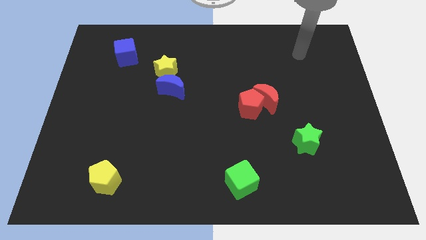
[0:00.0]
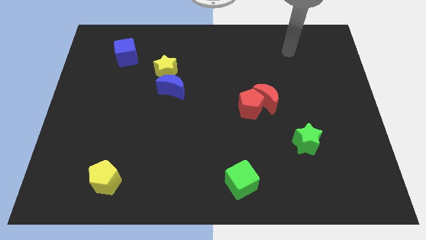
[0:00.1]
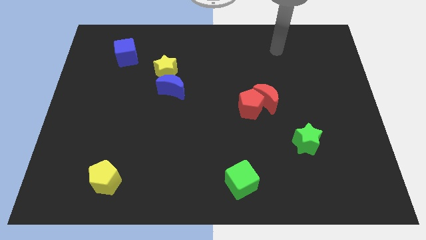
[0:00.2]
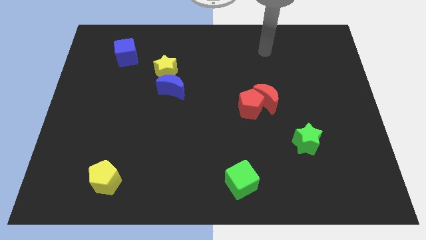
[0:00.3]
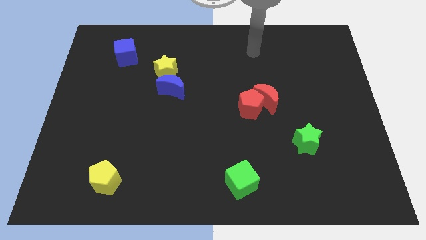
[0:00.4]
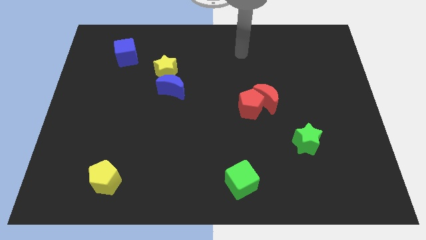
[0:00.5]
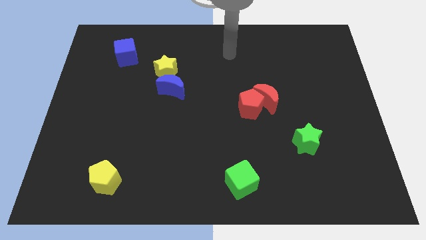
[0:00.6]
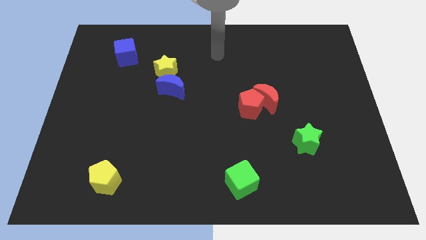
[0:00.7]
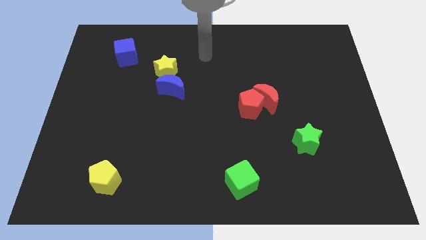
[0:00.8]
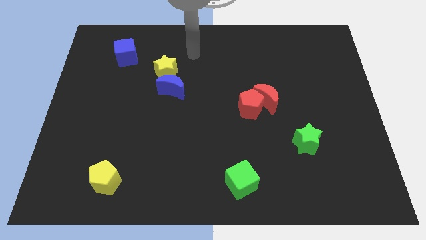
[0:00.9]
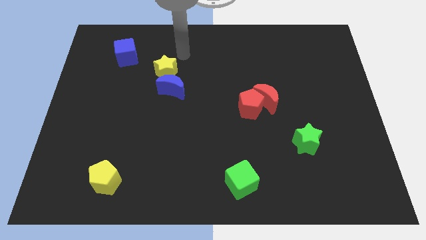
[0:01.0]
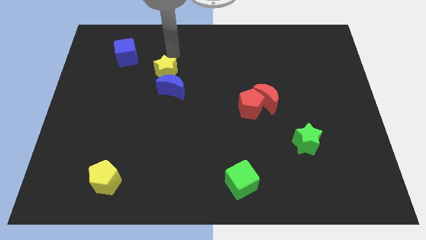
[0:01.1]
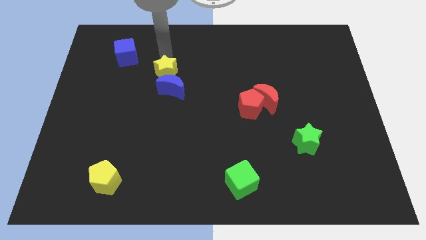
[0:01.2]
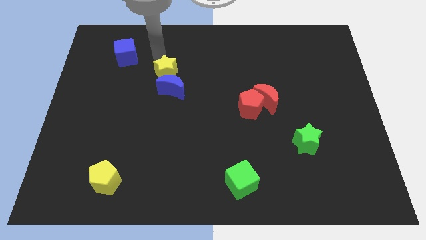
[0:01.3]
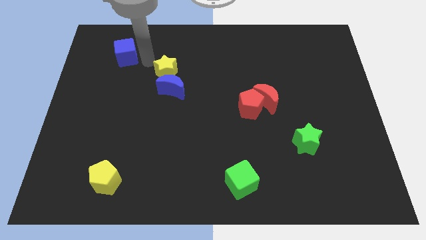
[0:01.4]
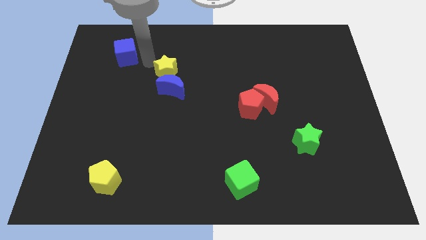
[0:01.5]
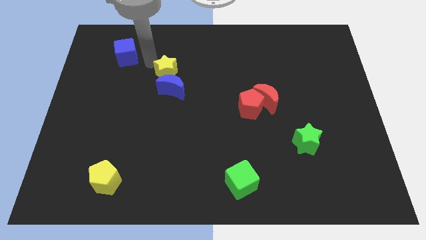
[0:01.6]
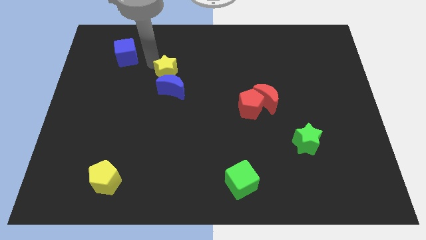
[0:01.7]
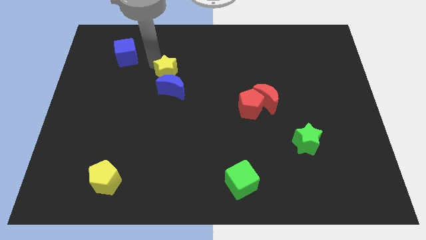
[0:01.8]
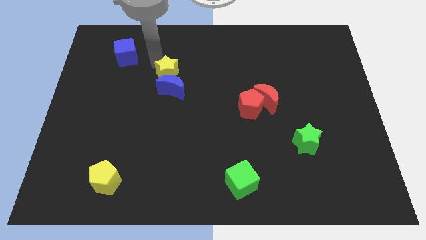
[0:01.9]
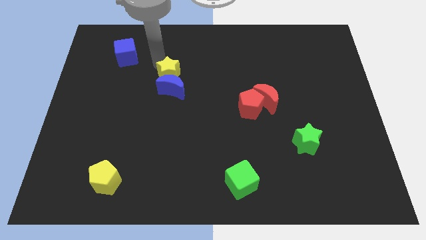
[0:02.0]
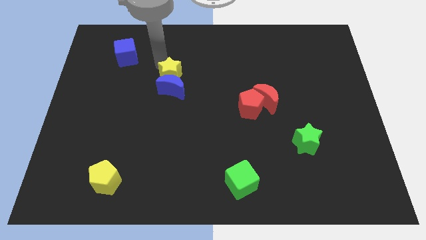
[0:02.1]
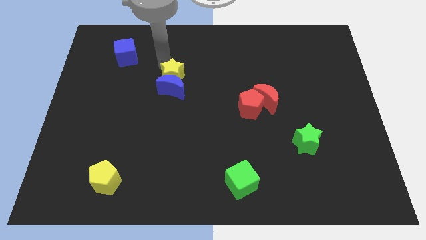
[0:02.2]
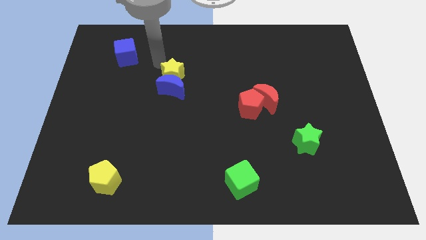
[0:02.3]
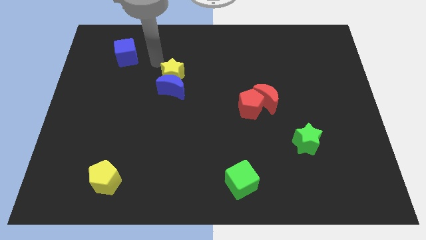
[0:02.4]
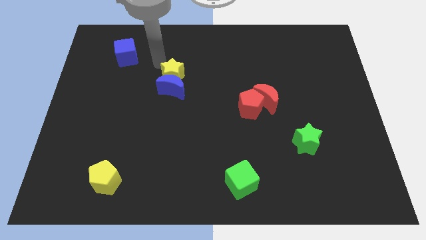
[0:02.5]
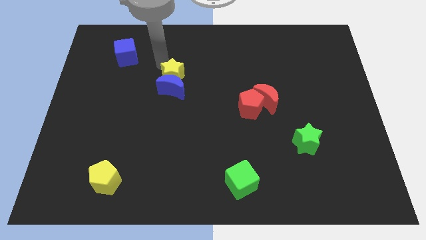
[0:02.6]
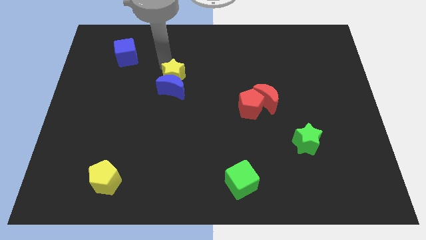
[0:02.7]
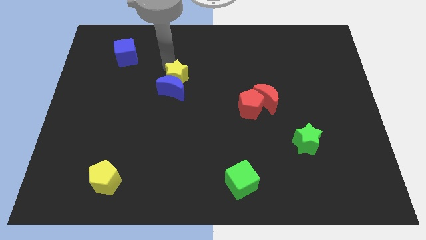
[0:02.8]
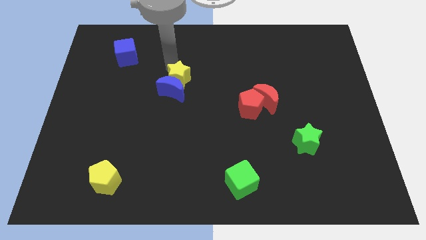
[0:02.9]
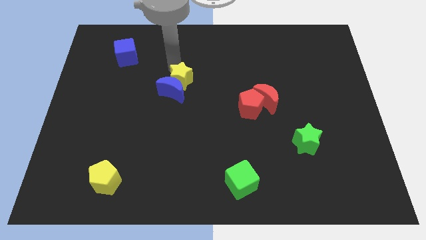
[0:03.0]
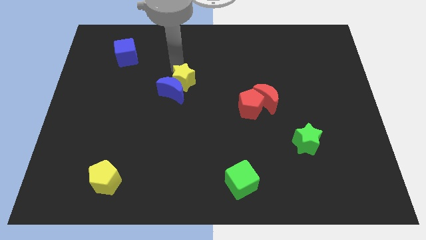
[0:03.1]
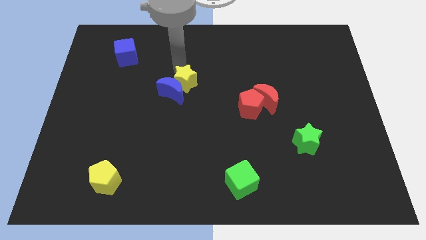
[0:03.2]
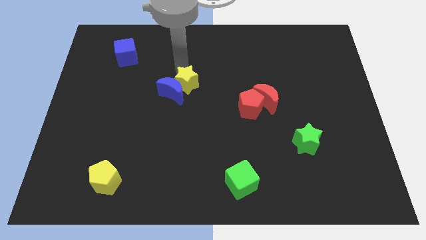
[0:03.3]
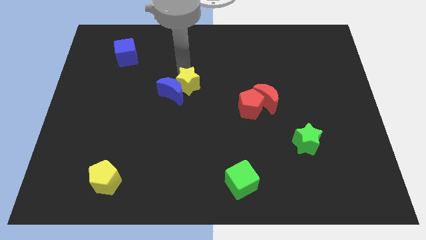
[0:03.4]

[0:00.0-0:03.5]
slide the yellow star diagonally downwards and to the right a little

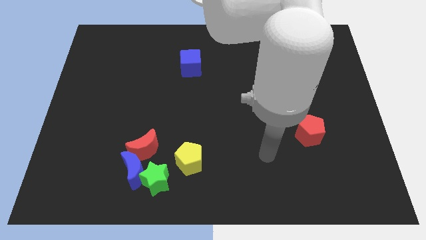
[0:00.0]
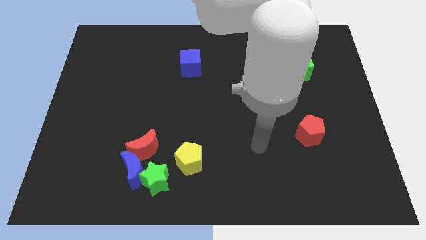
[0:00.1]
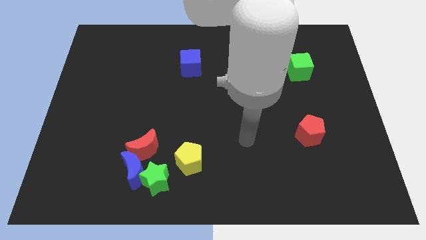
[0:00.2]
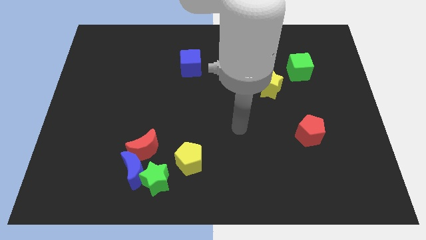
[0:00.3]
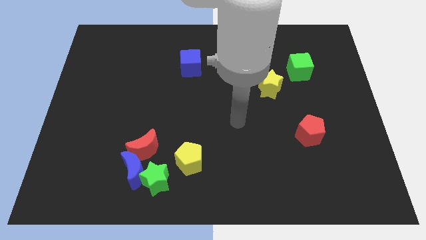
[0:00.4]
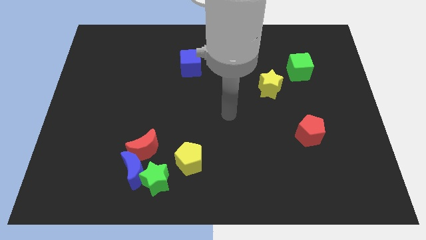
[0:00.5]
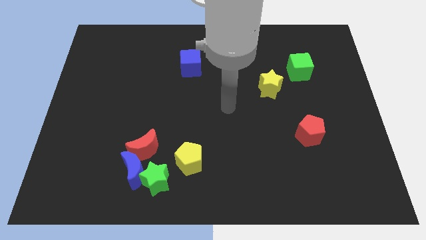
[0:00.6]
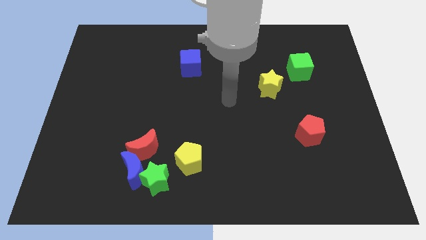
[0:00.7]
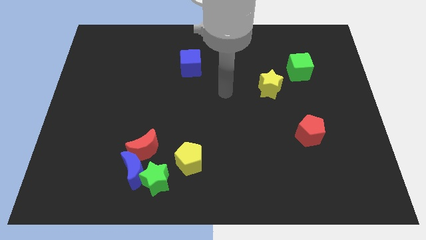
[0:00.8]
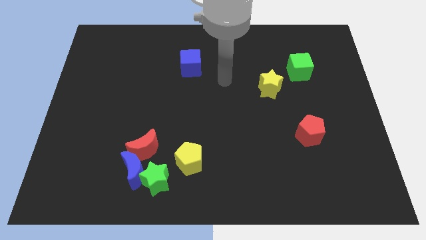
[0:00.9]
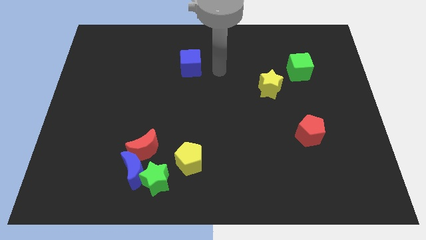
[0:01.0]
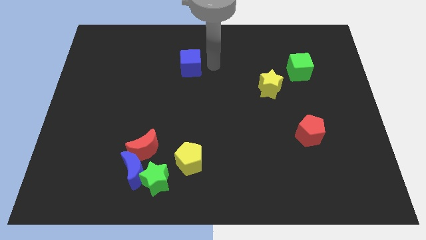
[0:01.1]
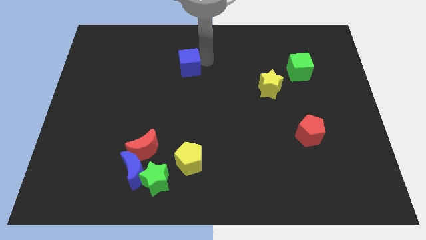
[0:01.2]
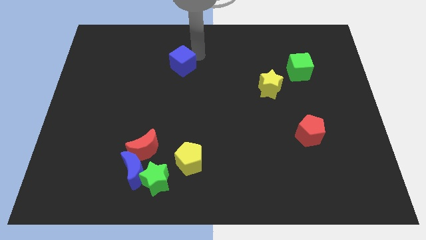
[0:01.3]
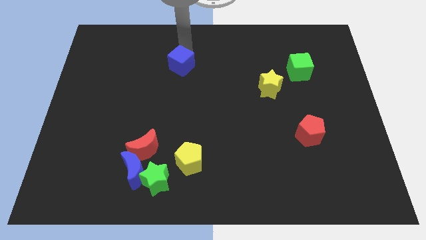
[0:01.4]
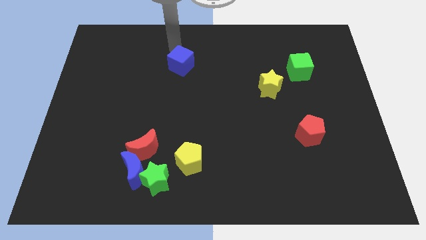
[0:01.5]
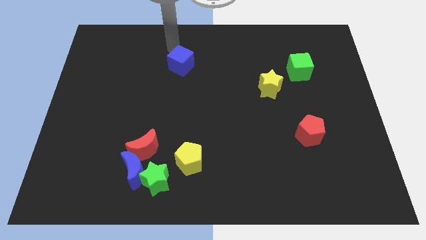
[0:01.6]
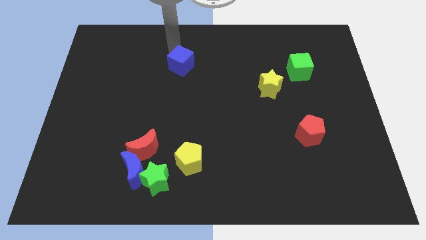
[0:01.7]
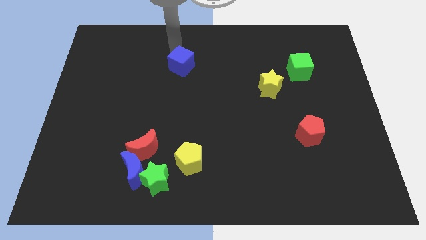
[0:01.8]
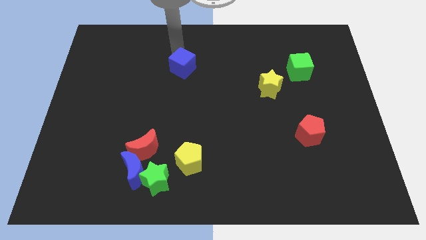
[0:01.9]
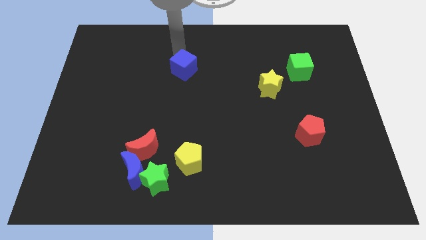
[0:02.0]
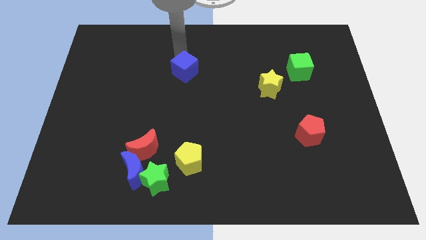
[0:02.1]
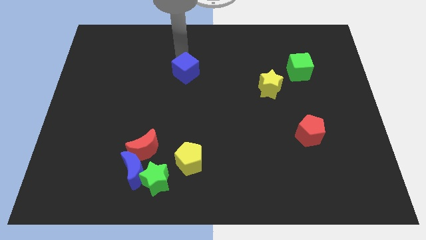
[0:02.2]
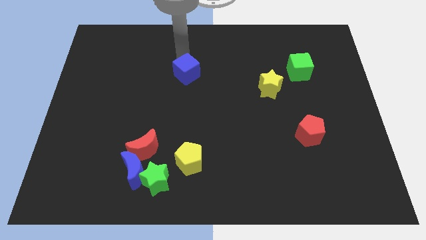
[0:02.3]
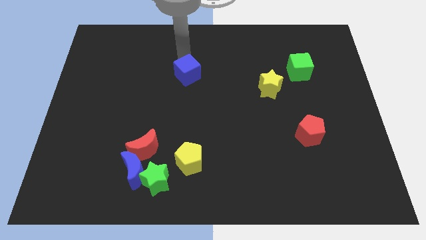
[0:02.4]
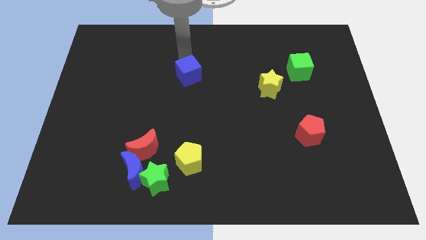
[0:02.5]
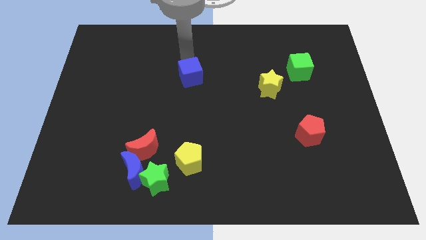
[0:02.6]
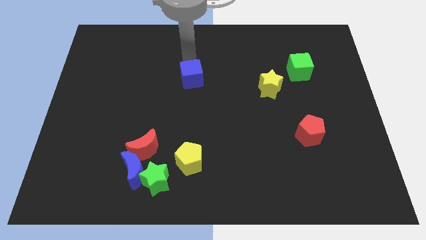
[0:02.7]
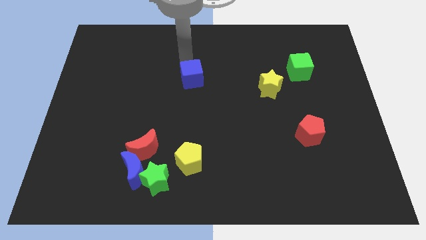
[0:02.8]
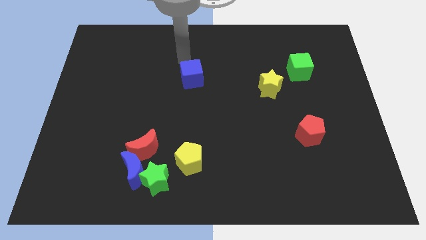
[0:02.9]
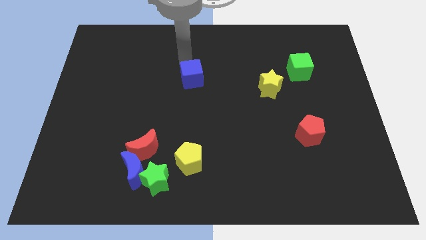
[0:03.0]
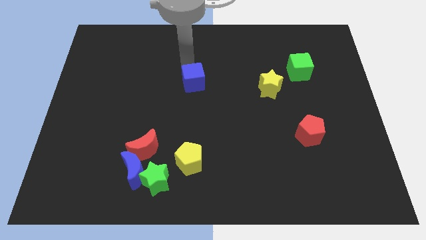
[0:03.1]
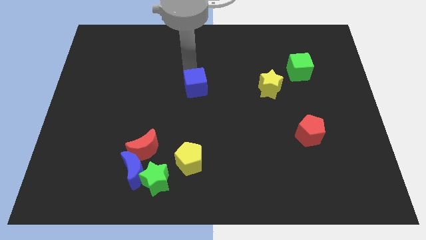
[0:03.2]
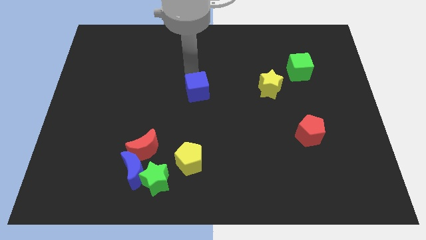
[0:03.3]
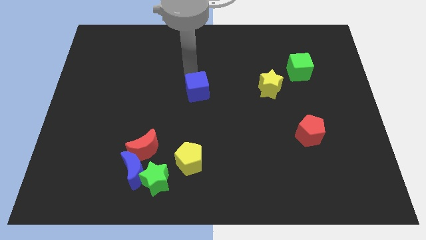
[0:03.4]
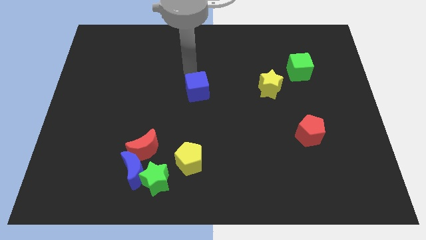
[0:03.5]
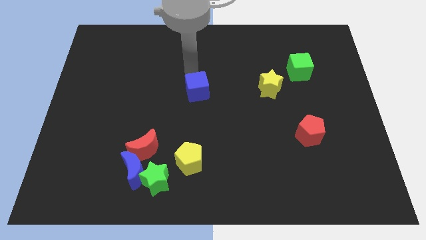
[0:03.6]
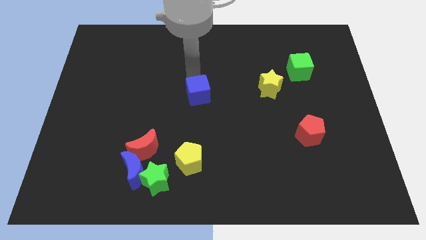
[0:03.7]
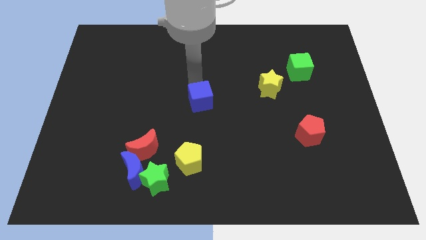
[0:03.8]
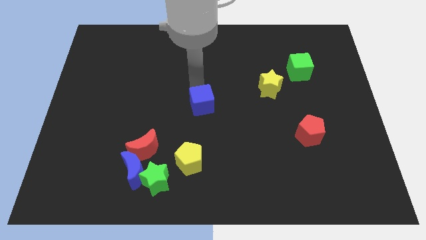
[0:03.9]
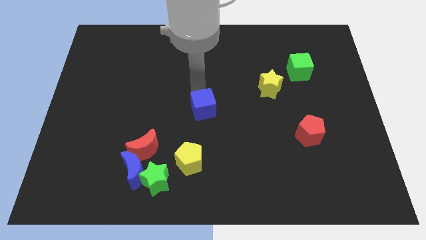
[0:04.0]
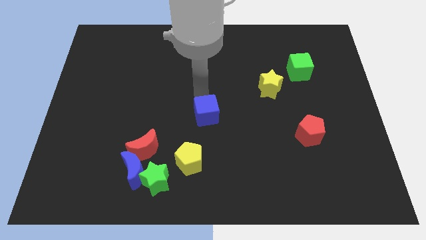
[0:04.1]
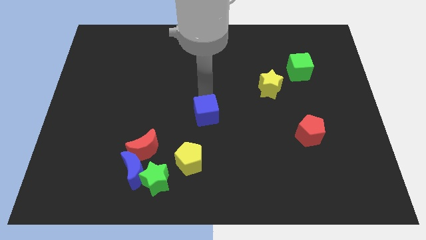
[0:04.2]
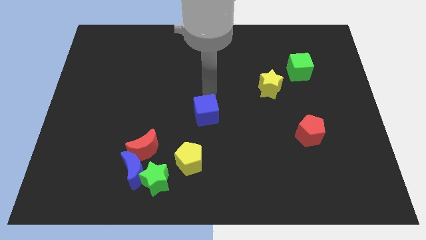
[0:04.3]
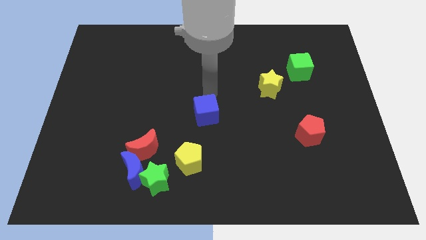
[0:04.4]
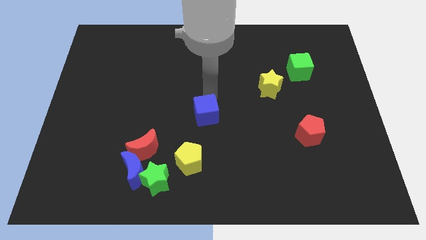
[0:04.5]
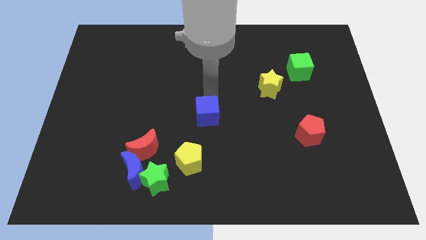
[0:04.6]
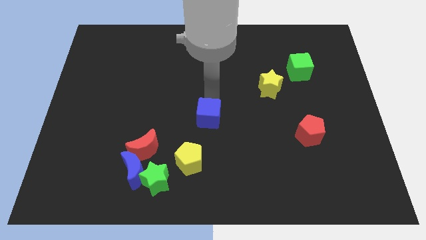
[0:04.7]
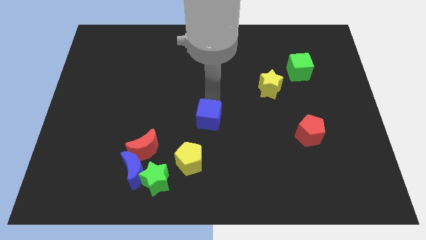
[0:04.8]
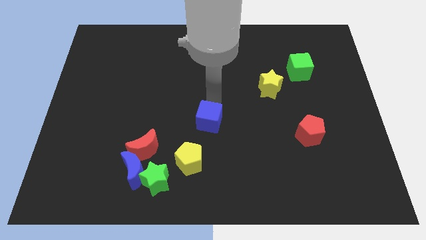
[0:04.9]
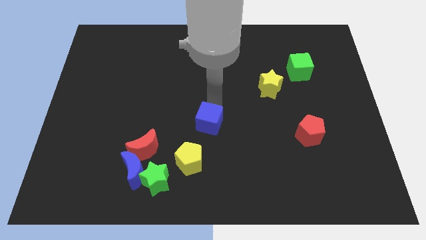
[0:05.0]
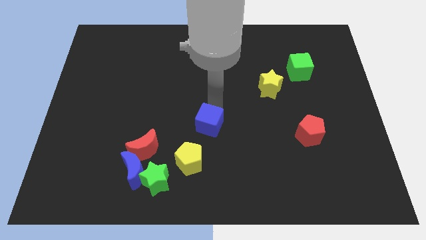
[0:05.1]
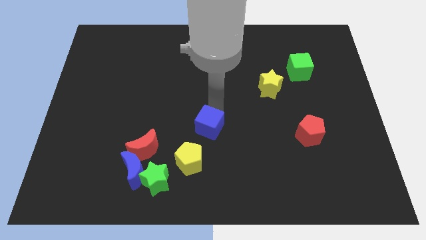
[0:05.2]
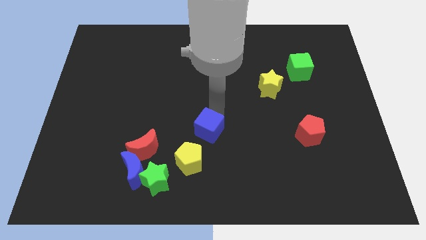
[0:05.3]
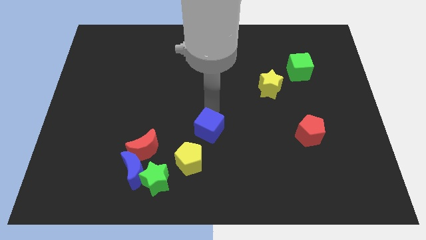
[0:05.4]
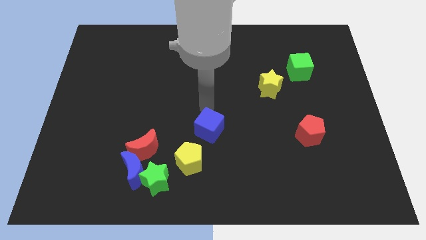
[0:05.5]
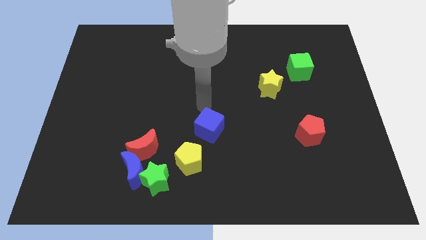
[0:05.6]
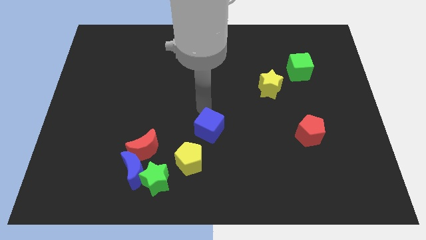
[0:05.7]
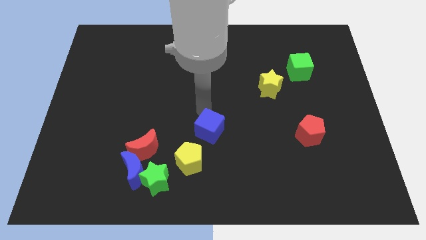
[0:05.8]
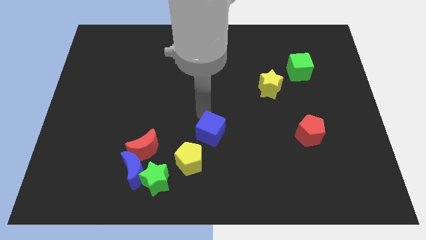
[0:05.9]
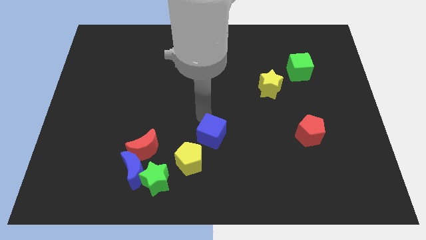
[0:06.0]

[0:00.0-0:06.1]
push the blue cube downwards
